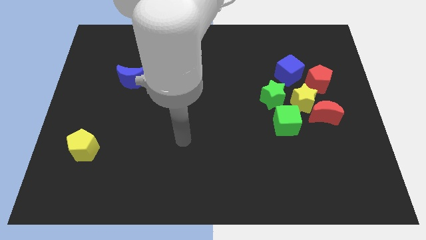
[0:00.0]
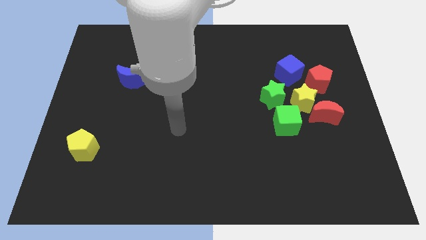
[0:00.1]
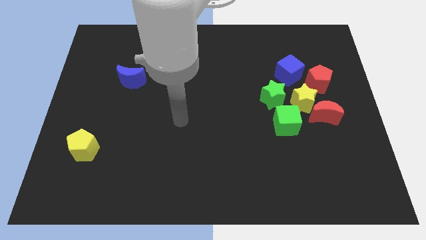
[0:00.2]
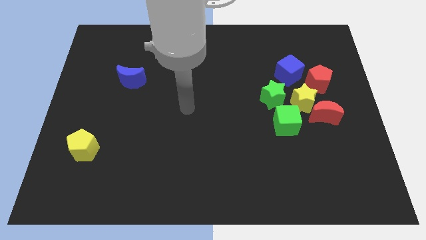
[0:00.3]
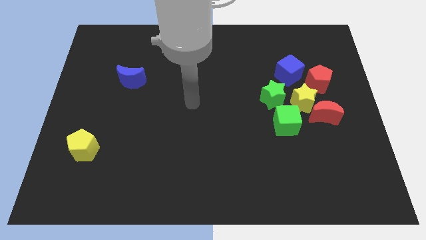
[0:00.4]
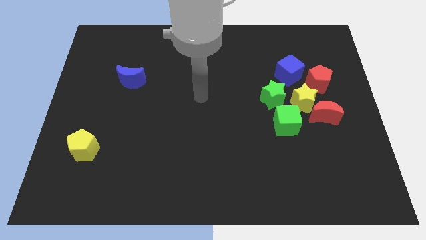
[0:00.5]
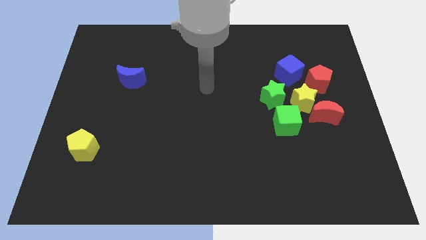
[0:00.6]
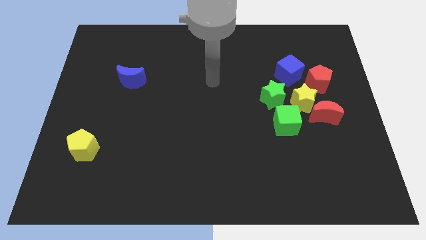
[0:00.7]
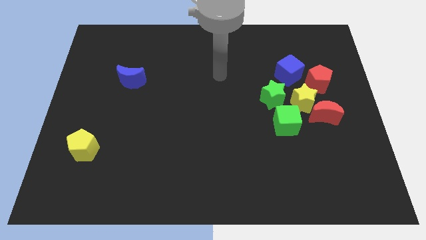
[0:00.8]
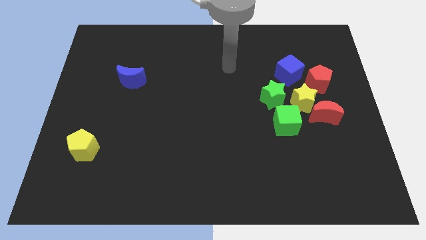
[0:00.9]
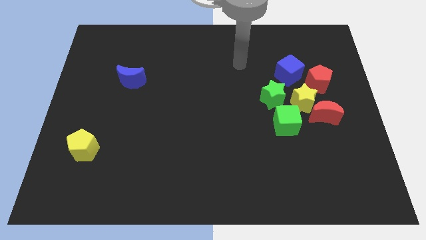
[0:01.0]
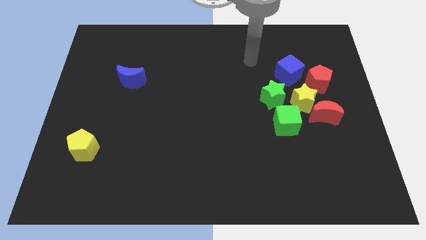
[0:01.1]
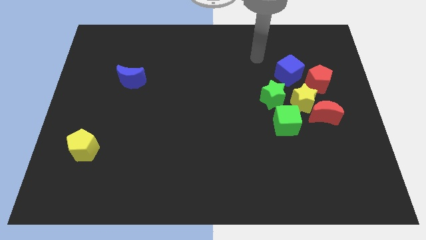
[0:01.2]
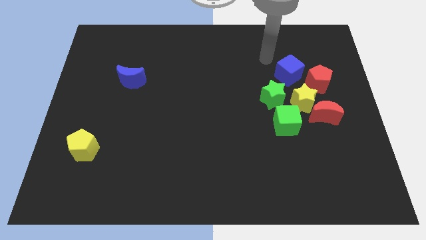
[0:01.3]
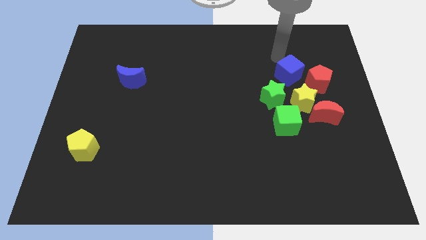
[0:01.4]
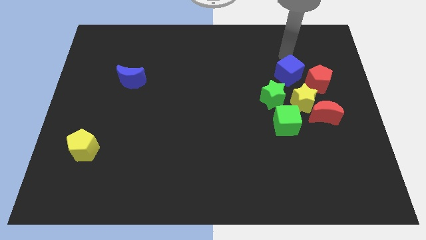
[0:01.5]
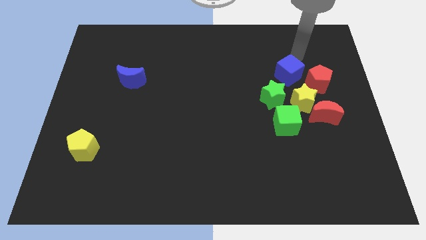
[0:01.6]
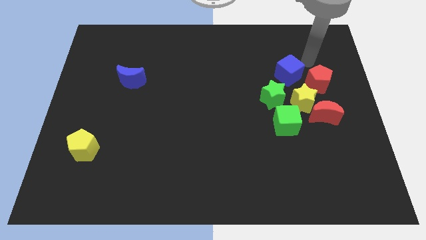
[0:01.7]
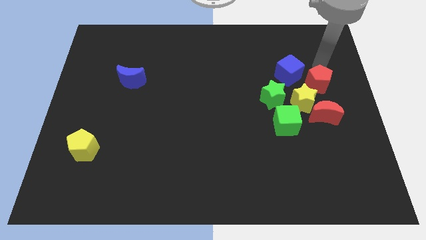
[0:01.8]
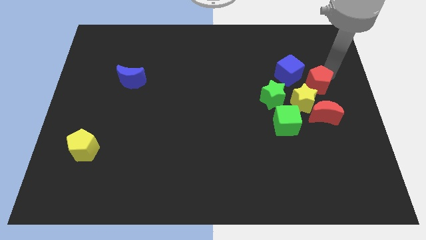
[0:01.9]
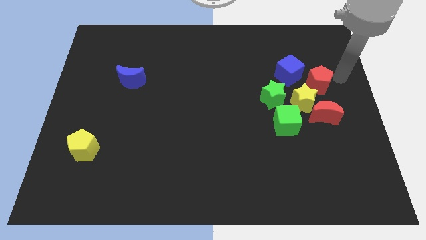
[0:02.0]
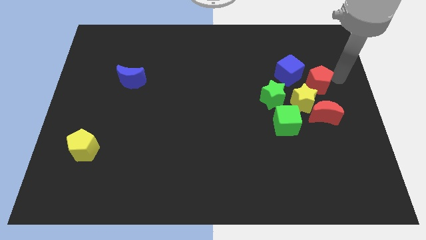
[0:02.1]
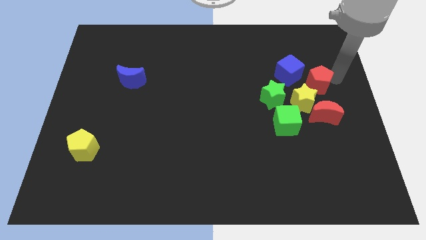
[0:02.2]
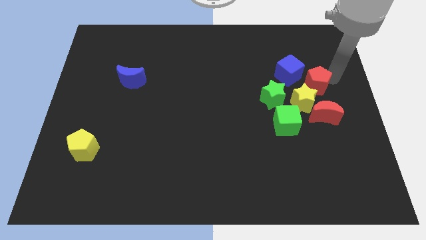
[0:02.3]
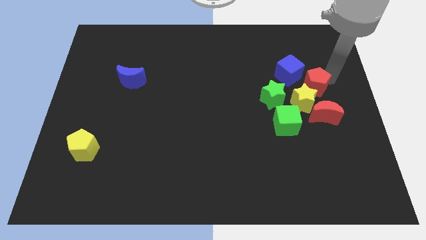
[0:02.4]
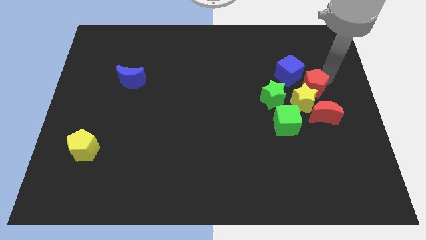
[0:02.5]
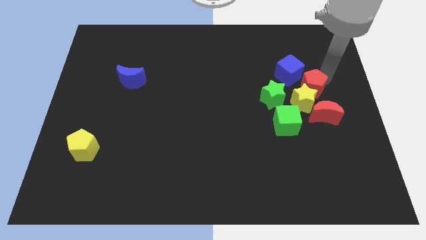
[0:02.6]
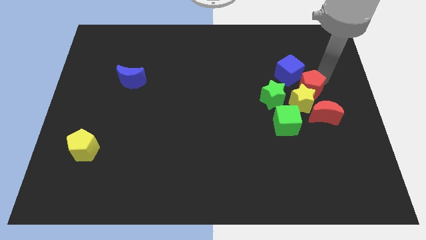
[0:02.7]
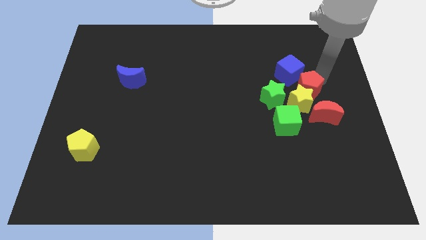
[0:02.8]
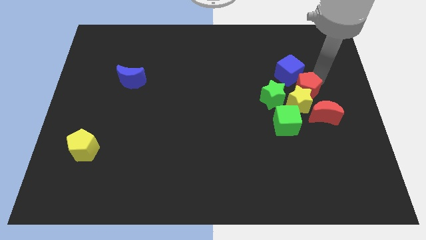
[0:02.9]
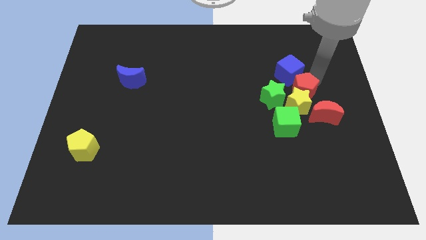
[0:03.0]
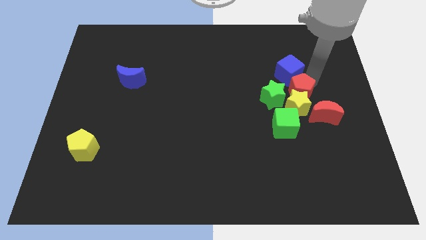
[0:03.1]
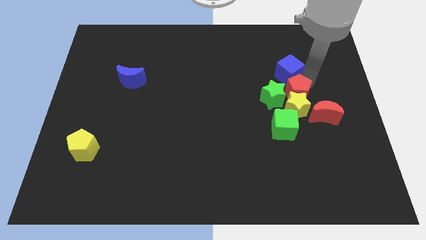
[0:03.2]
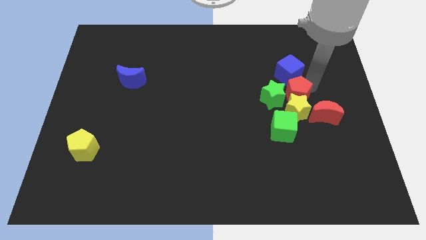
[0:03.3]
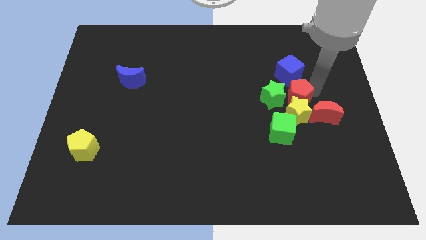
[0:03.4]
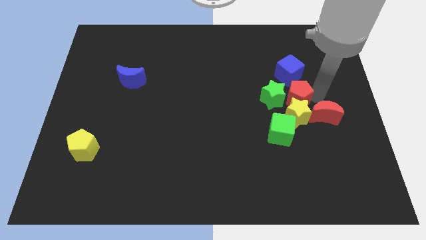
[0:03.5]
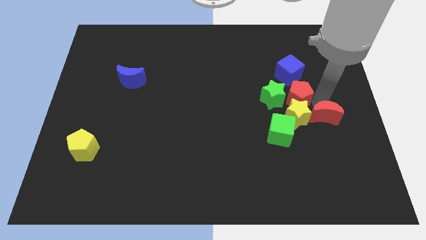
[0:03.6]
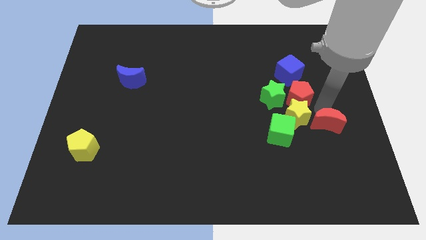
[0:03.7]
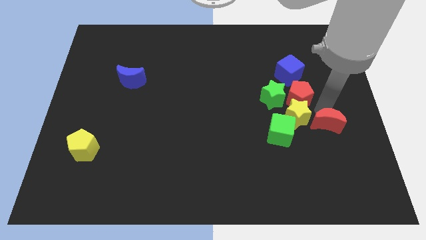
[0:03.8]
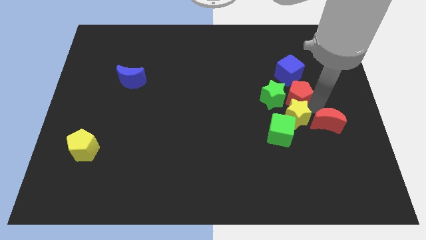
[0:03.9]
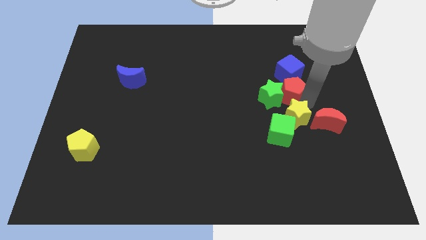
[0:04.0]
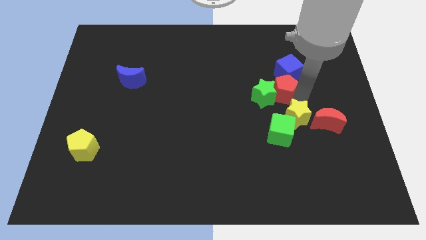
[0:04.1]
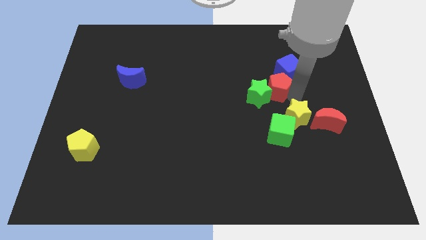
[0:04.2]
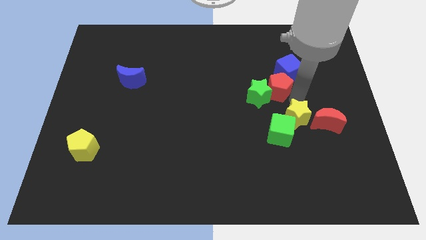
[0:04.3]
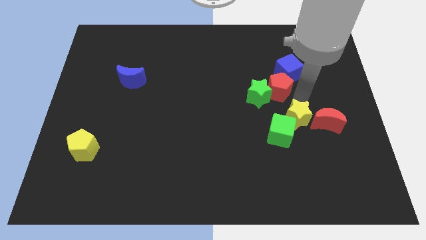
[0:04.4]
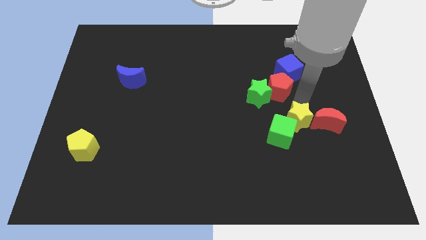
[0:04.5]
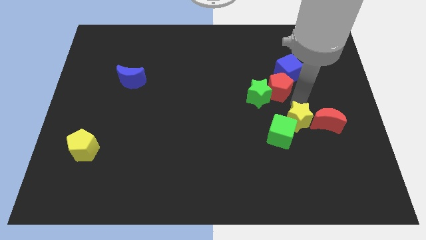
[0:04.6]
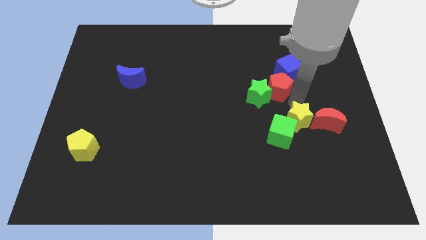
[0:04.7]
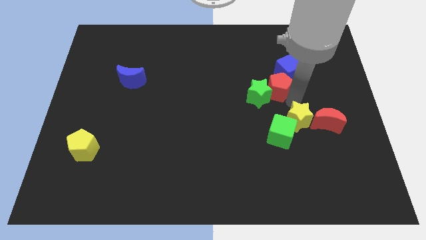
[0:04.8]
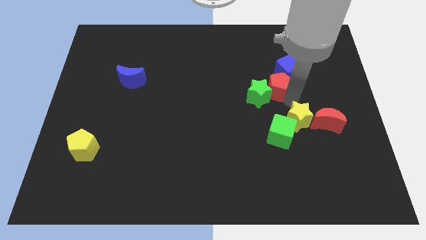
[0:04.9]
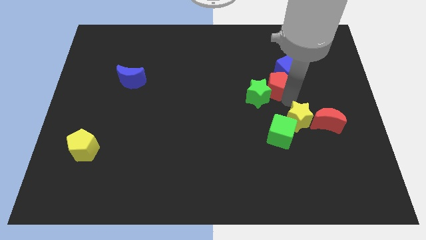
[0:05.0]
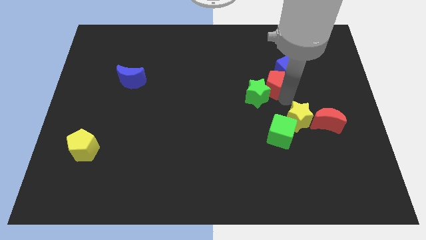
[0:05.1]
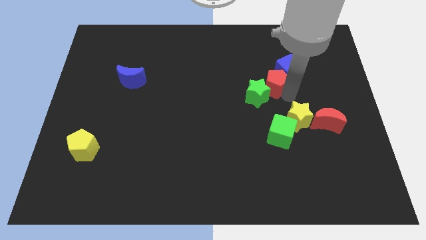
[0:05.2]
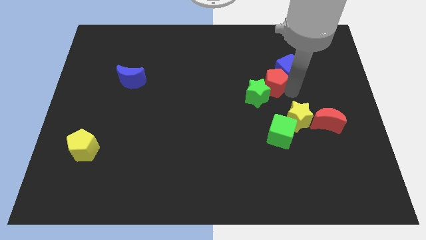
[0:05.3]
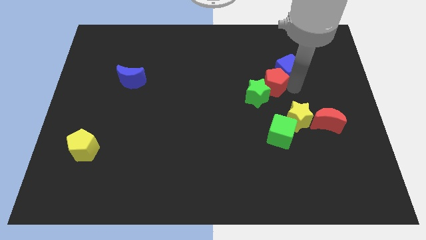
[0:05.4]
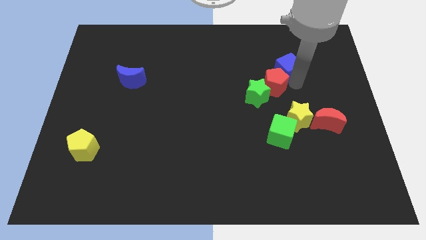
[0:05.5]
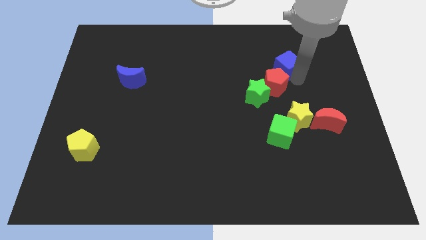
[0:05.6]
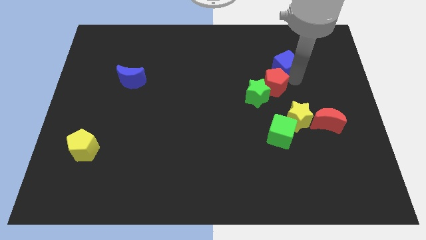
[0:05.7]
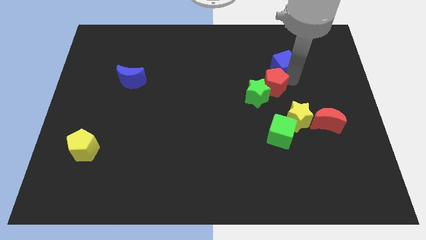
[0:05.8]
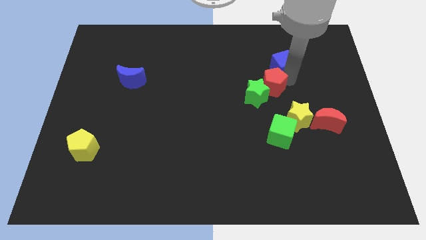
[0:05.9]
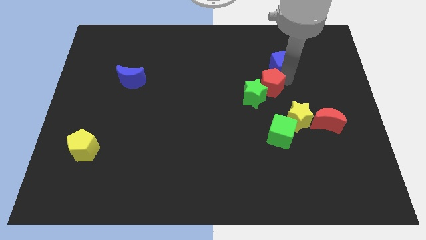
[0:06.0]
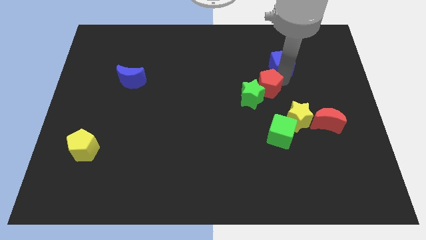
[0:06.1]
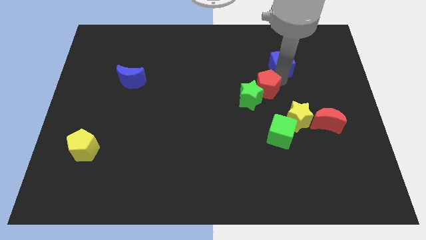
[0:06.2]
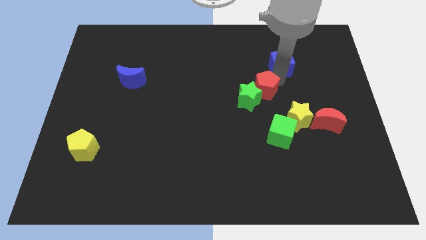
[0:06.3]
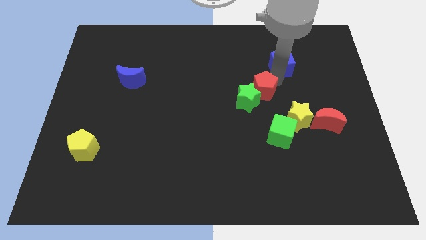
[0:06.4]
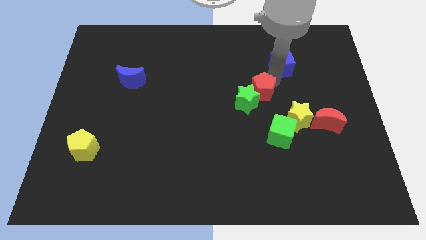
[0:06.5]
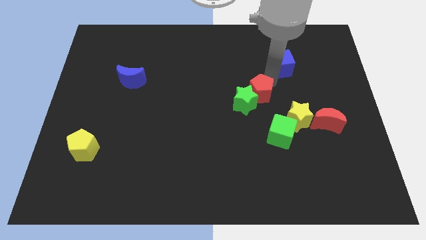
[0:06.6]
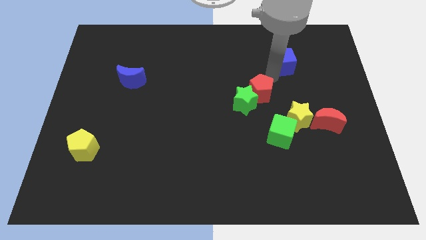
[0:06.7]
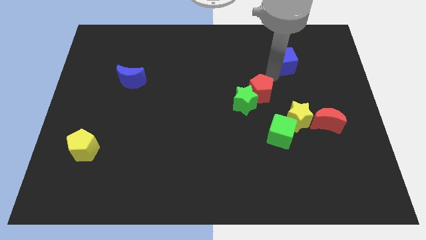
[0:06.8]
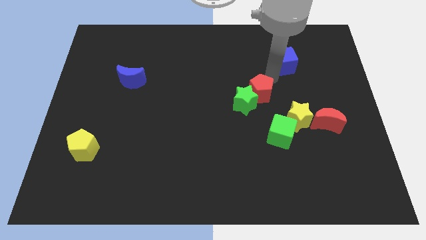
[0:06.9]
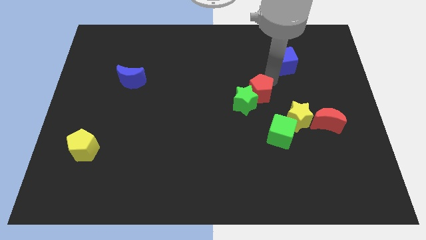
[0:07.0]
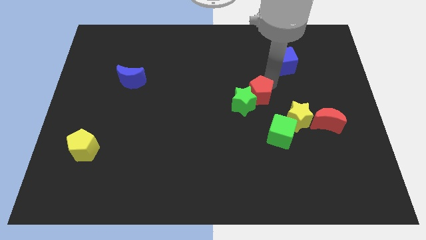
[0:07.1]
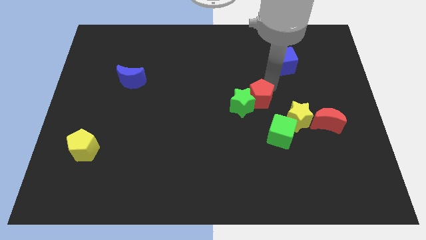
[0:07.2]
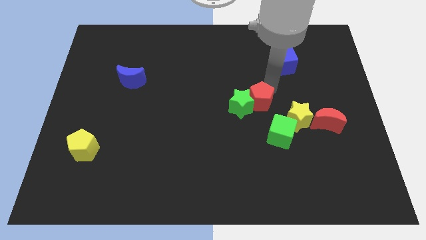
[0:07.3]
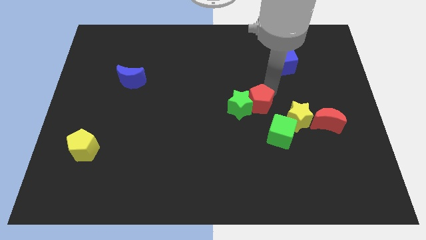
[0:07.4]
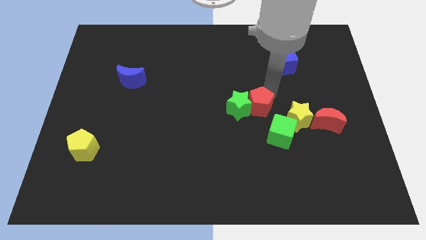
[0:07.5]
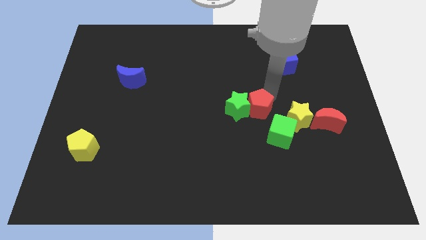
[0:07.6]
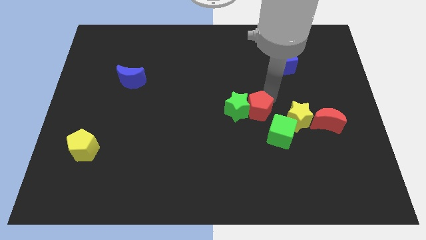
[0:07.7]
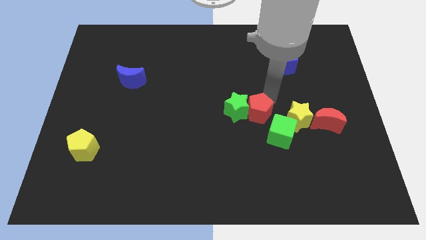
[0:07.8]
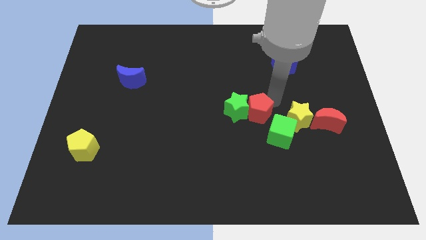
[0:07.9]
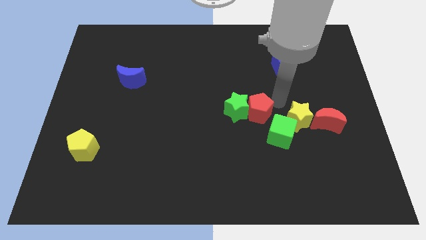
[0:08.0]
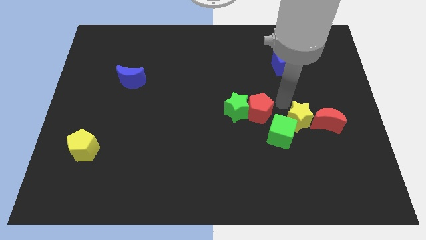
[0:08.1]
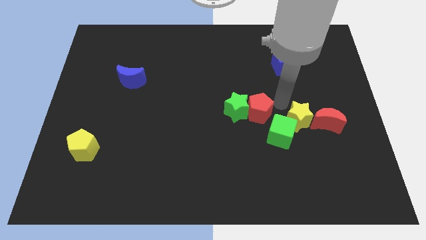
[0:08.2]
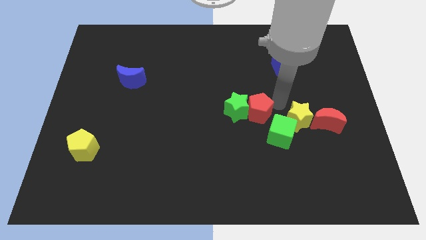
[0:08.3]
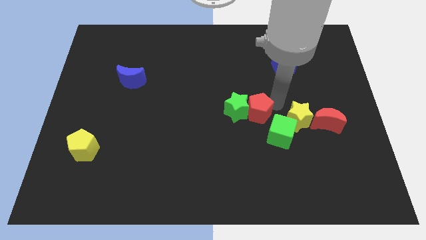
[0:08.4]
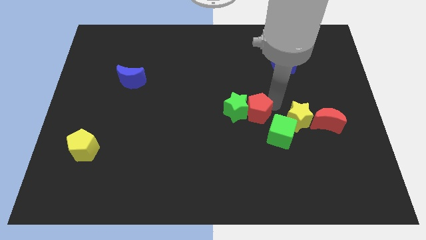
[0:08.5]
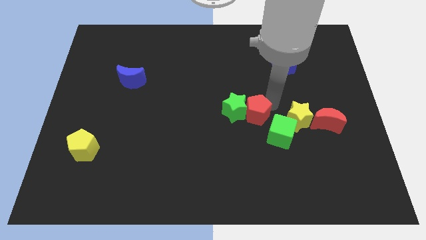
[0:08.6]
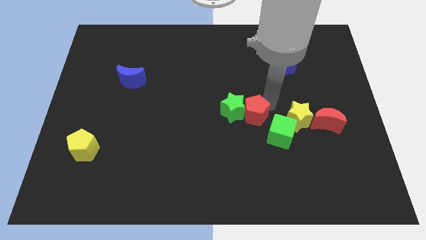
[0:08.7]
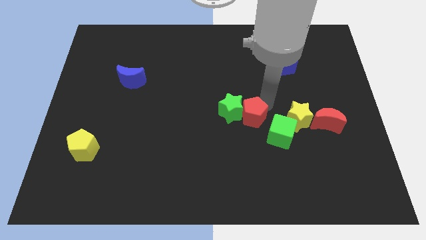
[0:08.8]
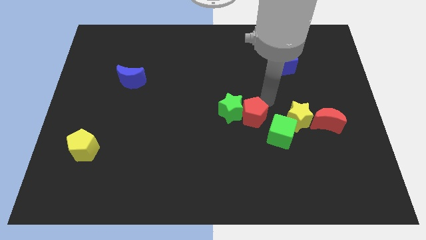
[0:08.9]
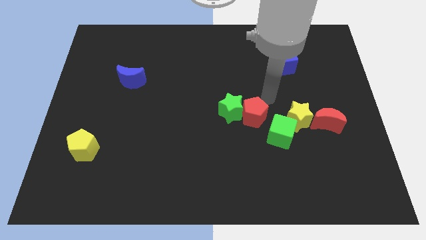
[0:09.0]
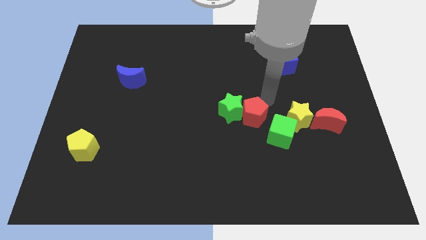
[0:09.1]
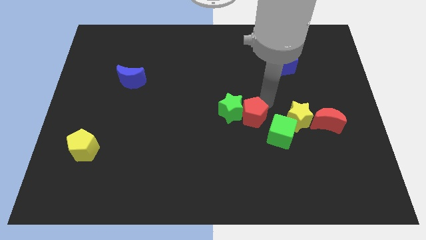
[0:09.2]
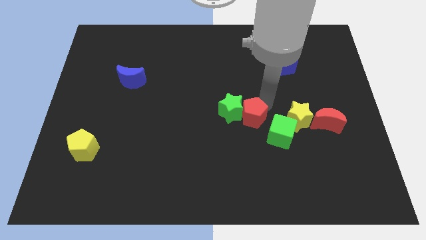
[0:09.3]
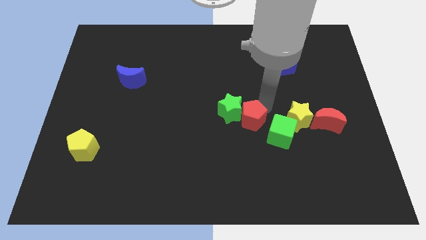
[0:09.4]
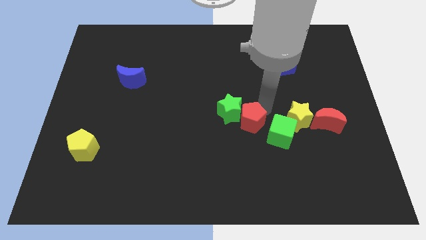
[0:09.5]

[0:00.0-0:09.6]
push the red pentagon down and then left
